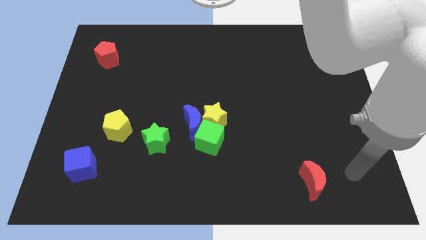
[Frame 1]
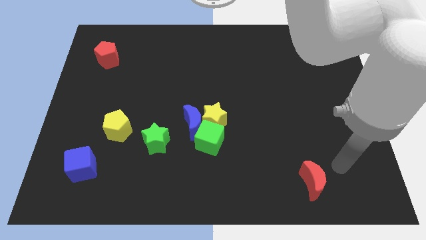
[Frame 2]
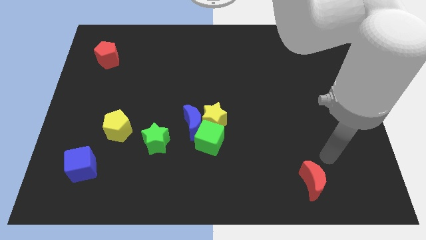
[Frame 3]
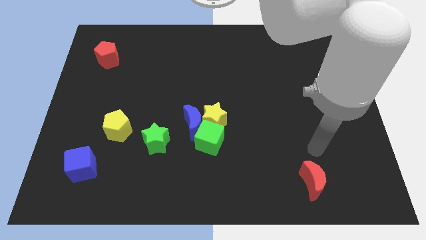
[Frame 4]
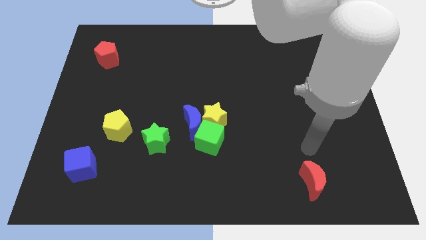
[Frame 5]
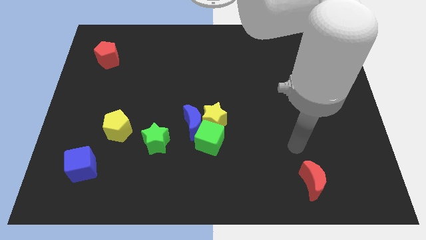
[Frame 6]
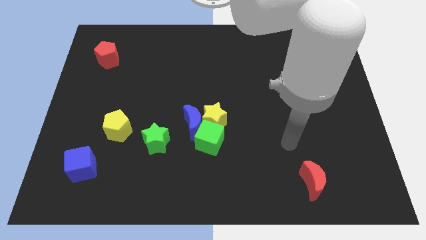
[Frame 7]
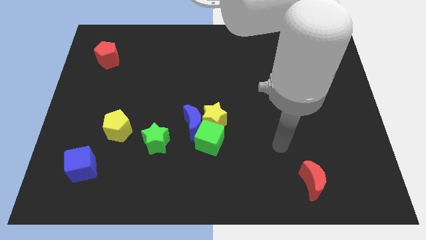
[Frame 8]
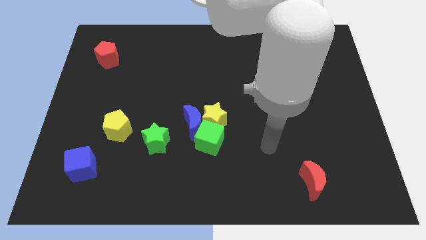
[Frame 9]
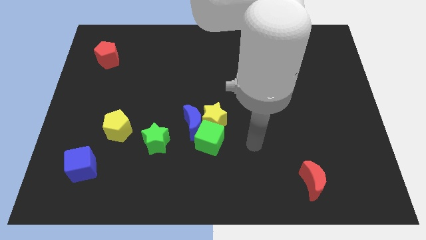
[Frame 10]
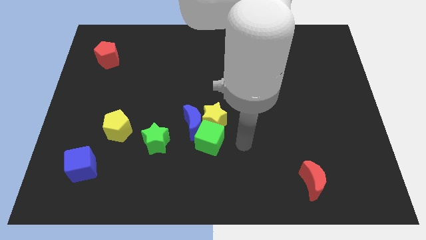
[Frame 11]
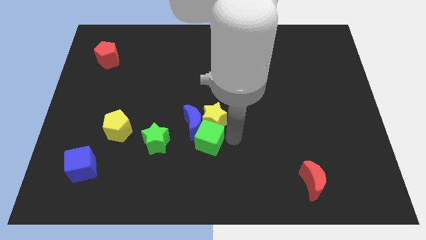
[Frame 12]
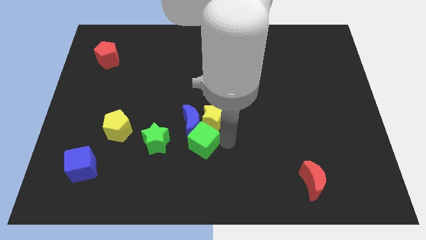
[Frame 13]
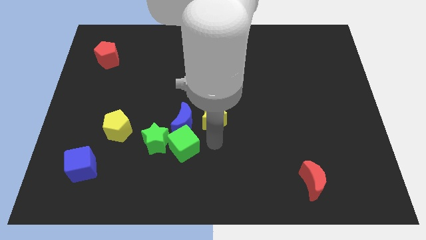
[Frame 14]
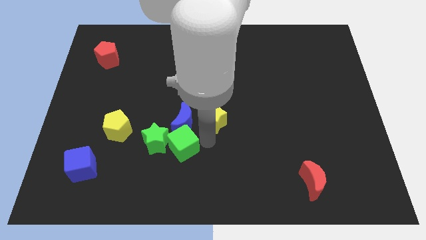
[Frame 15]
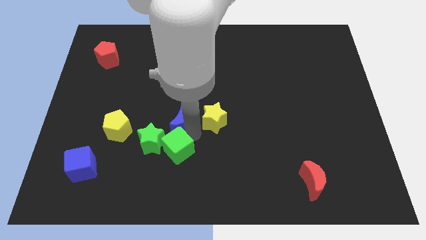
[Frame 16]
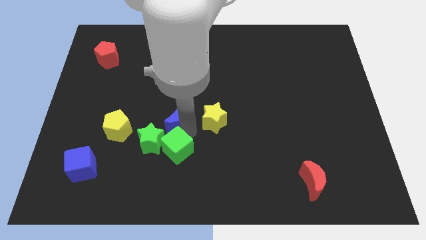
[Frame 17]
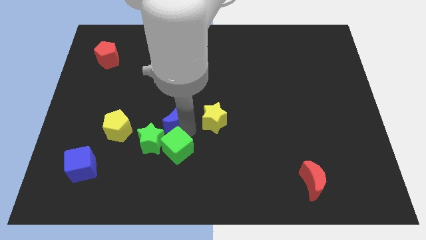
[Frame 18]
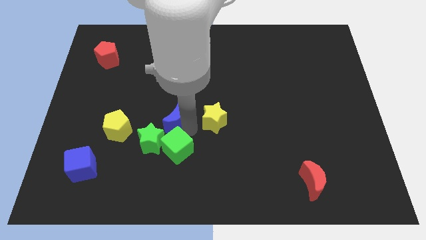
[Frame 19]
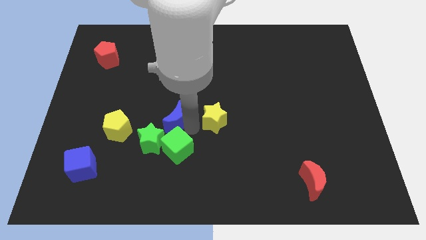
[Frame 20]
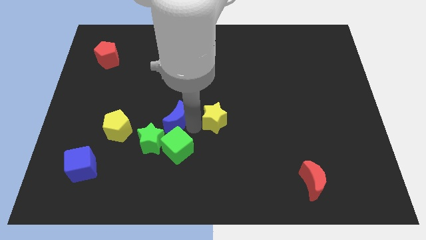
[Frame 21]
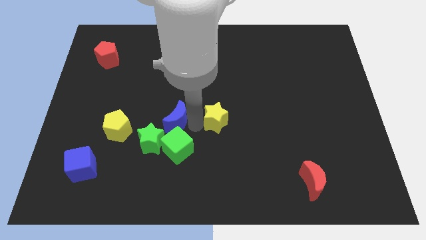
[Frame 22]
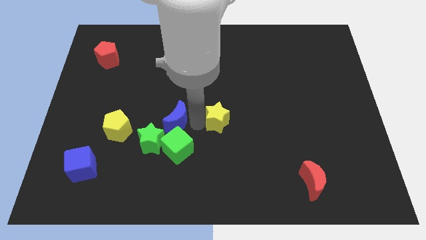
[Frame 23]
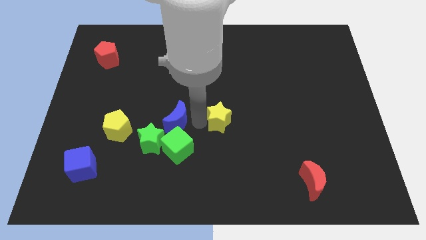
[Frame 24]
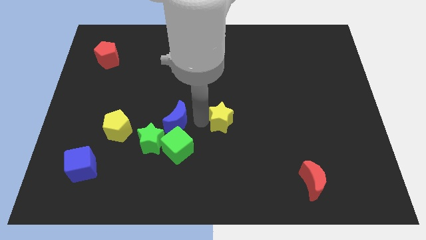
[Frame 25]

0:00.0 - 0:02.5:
move the yellow star away from the blue moon and green cube

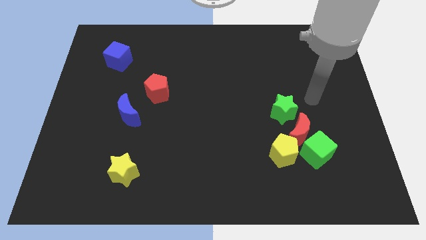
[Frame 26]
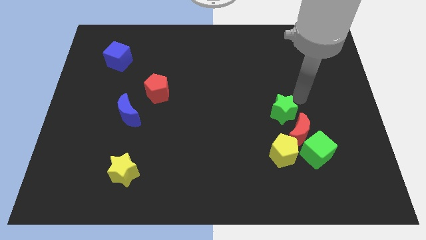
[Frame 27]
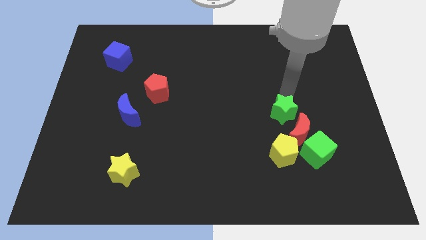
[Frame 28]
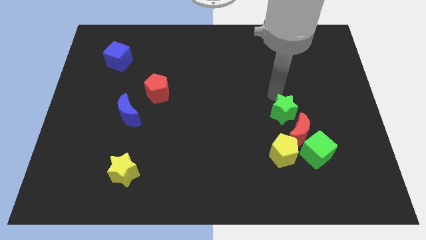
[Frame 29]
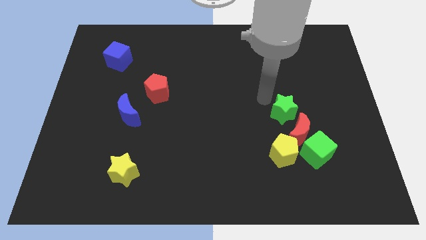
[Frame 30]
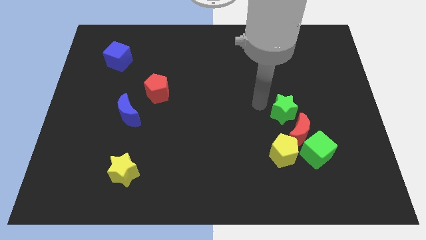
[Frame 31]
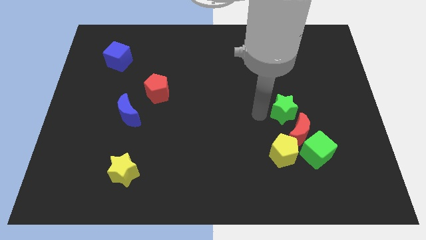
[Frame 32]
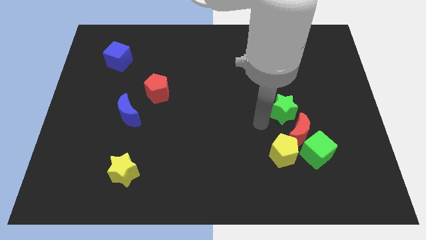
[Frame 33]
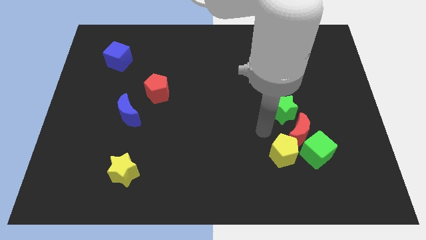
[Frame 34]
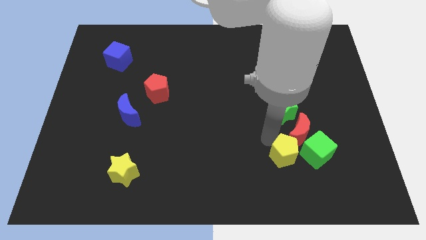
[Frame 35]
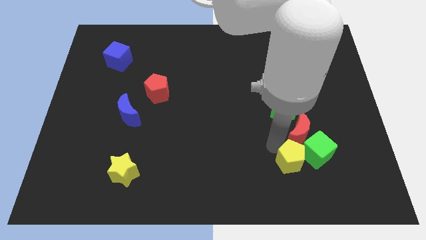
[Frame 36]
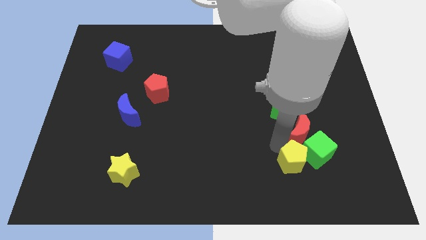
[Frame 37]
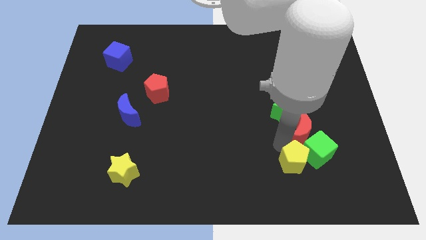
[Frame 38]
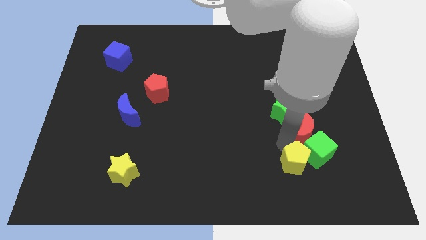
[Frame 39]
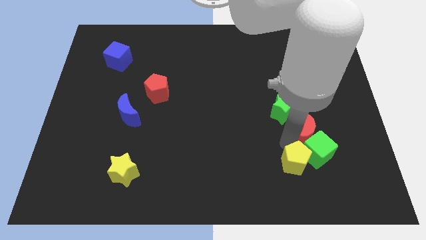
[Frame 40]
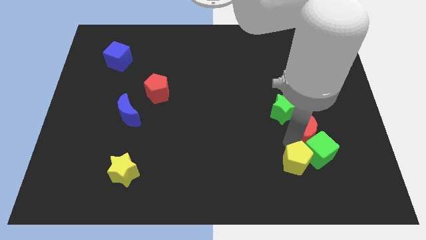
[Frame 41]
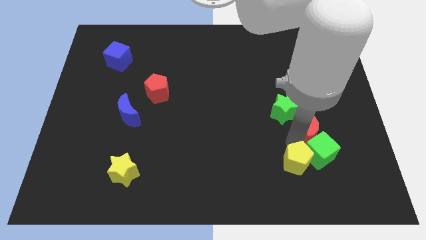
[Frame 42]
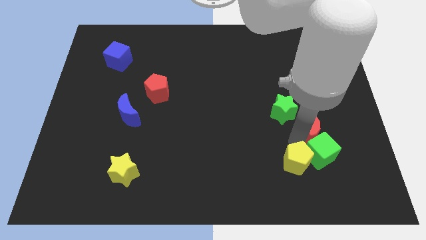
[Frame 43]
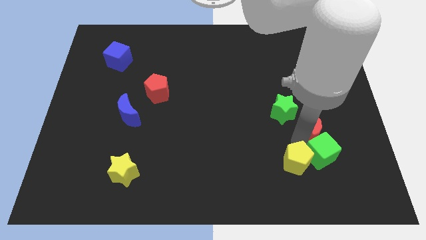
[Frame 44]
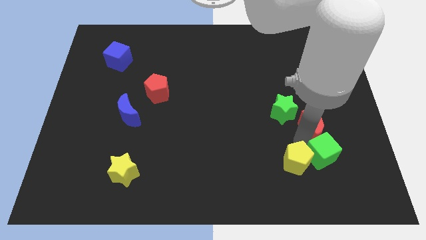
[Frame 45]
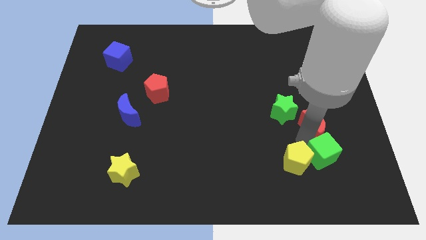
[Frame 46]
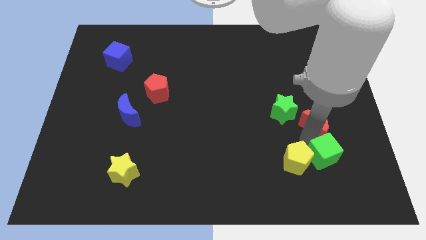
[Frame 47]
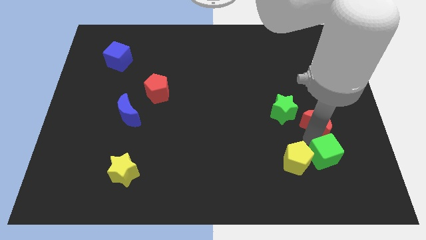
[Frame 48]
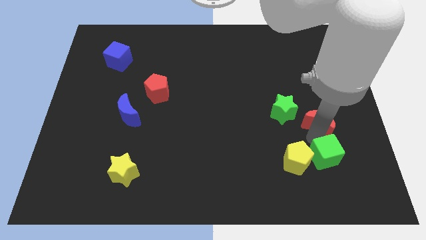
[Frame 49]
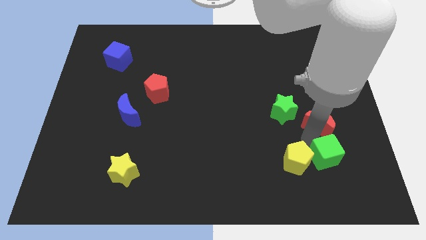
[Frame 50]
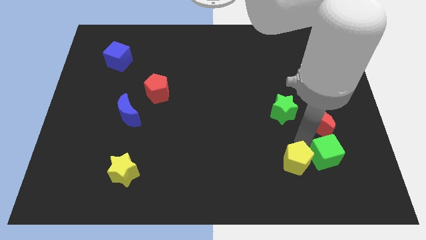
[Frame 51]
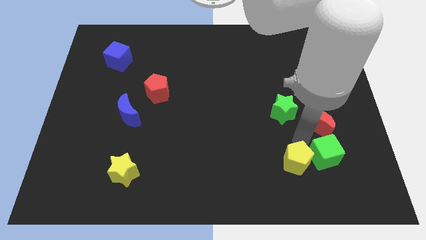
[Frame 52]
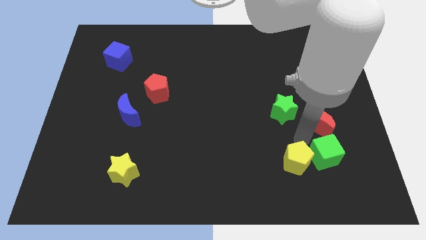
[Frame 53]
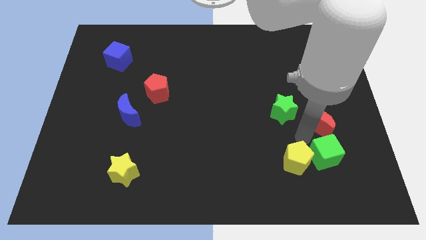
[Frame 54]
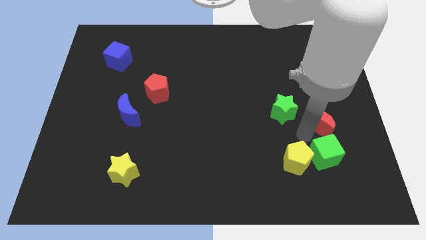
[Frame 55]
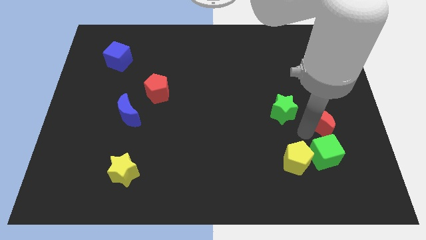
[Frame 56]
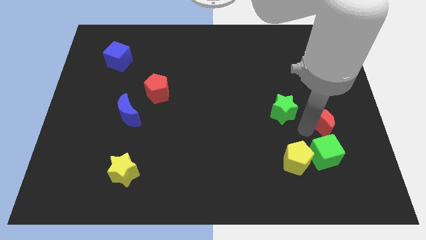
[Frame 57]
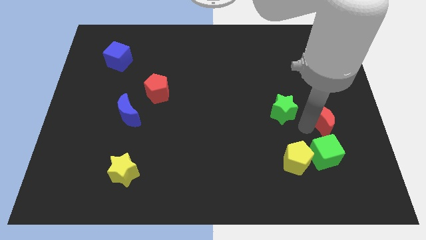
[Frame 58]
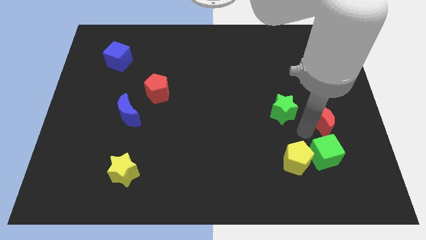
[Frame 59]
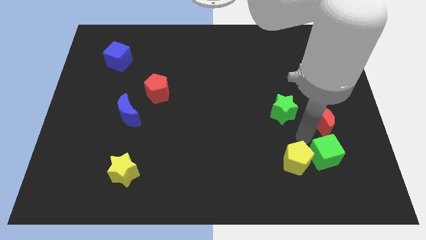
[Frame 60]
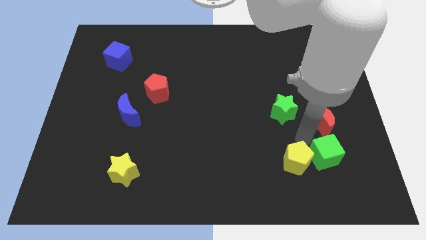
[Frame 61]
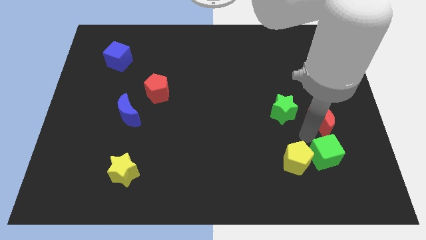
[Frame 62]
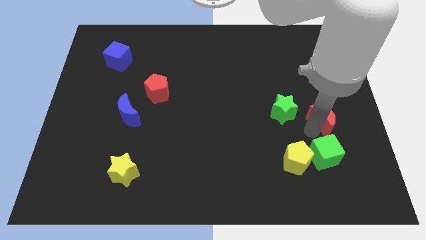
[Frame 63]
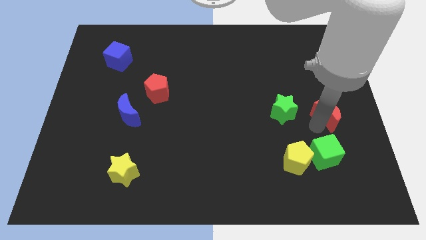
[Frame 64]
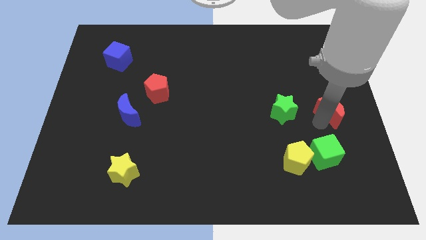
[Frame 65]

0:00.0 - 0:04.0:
separate the red moon from the group of blocks

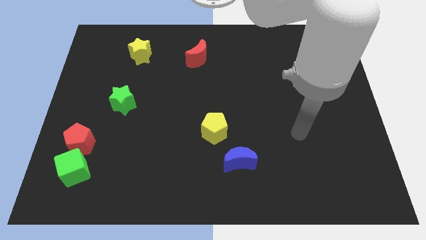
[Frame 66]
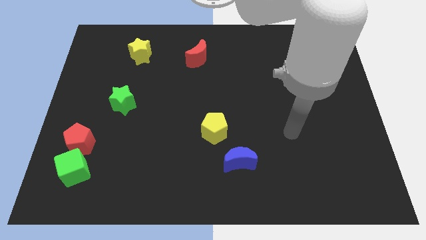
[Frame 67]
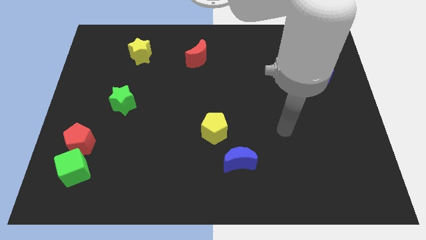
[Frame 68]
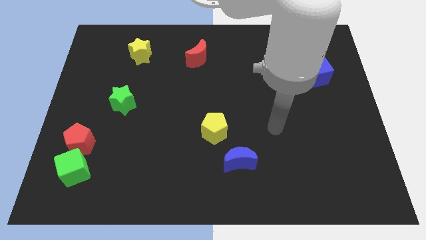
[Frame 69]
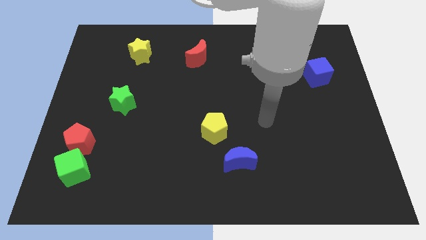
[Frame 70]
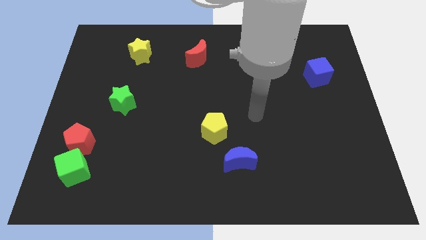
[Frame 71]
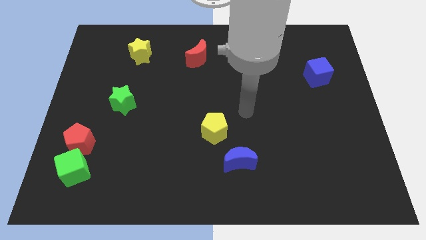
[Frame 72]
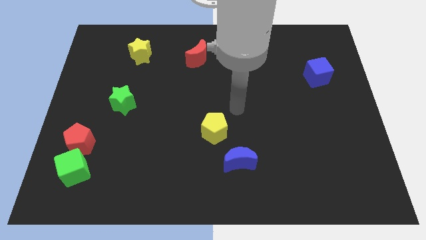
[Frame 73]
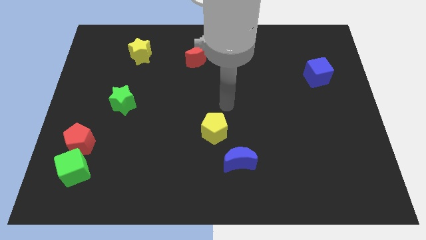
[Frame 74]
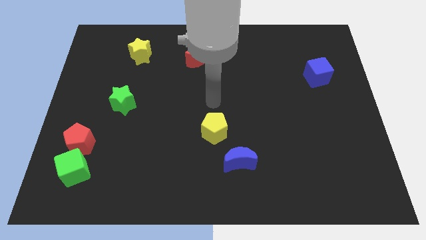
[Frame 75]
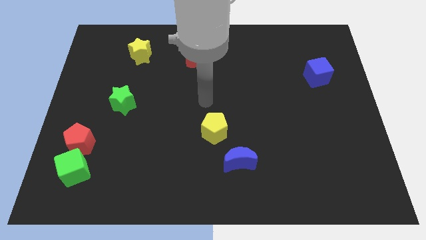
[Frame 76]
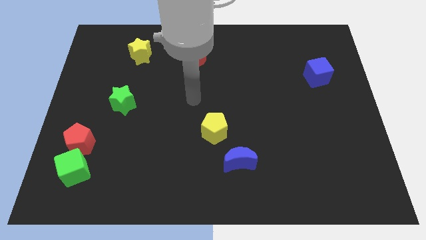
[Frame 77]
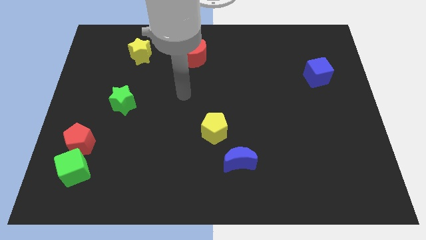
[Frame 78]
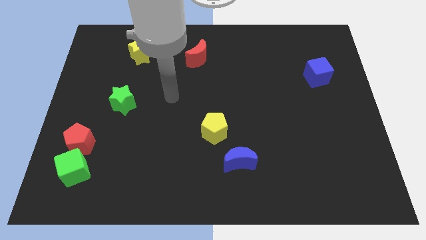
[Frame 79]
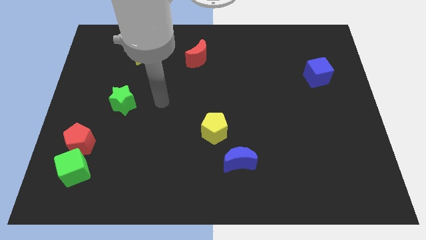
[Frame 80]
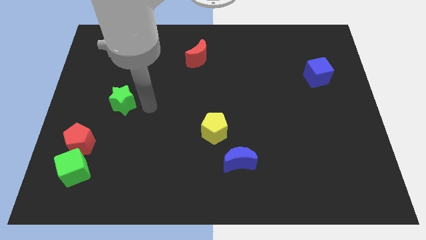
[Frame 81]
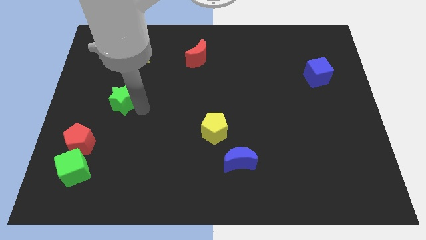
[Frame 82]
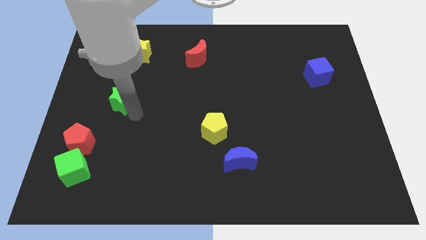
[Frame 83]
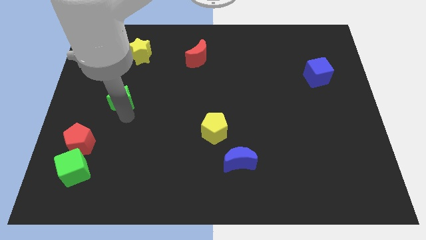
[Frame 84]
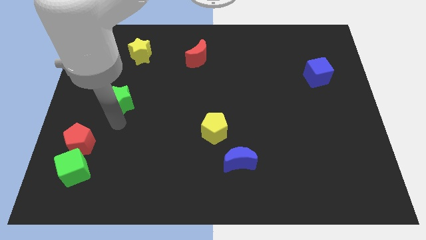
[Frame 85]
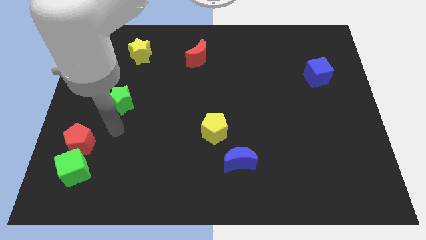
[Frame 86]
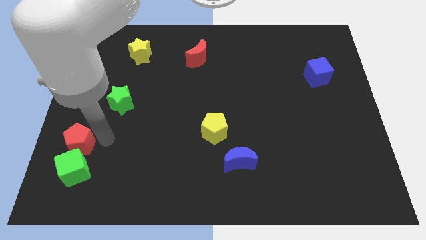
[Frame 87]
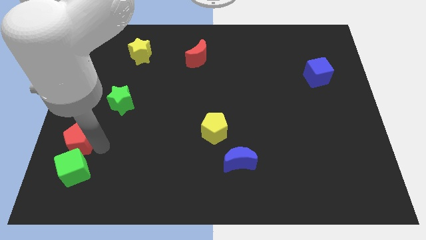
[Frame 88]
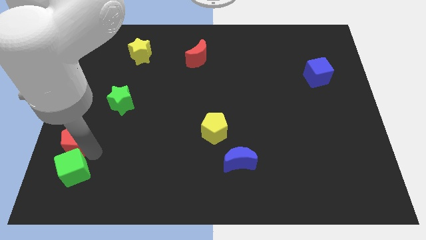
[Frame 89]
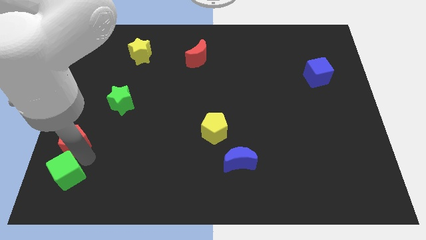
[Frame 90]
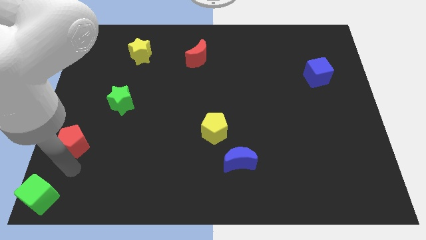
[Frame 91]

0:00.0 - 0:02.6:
separate the red pentagon from the green cube

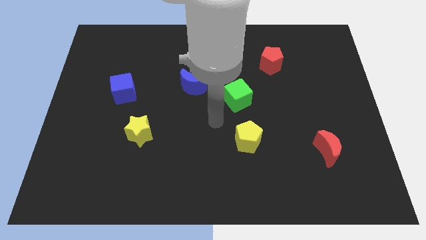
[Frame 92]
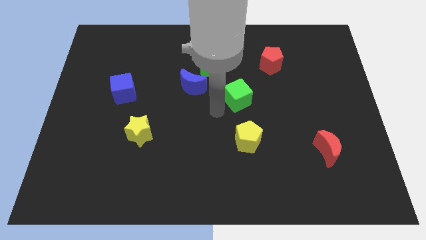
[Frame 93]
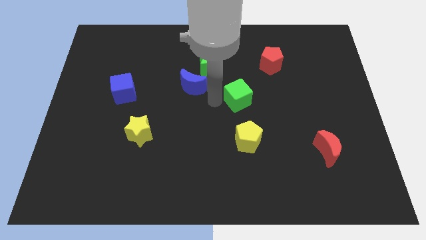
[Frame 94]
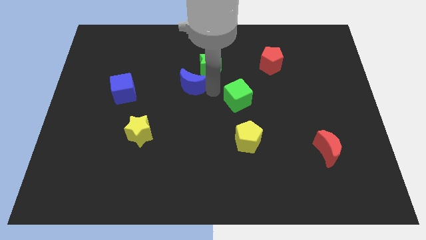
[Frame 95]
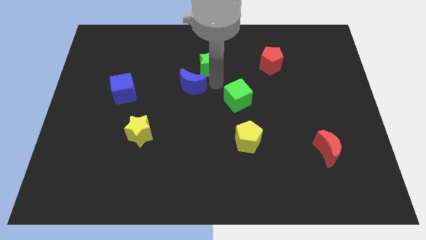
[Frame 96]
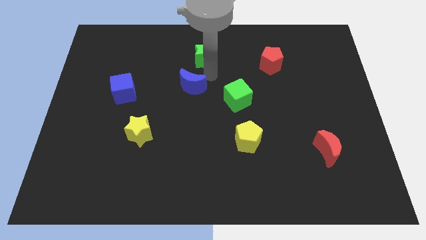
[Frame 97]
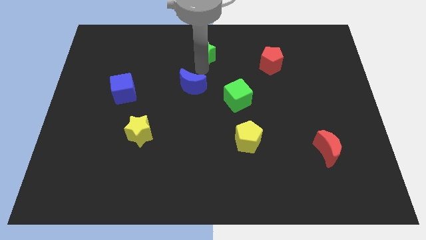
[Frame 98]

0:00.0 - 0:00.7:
pull the blue moon apart from the green star
